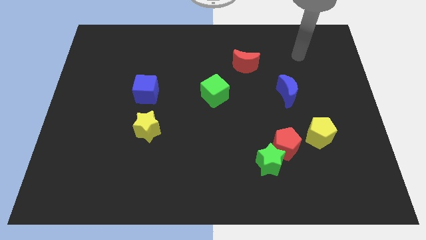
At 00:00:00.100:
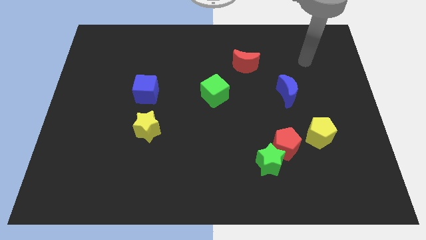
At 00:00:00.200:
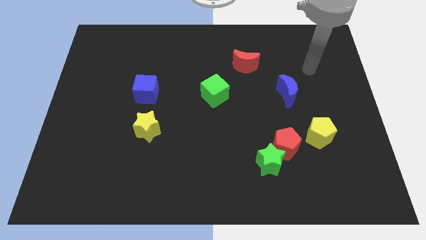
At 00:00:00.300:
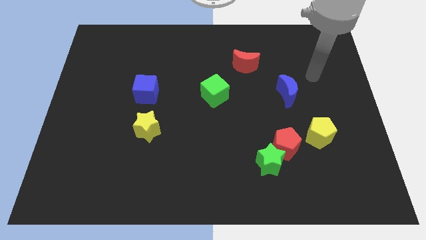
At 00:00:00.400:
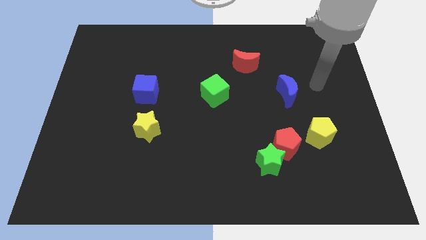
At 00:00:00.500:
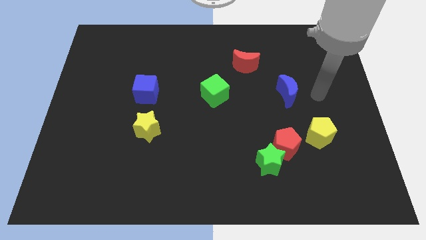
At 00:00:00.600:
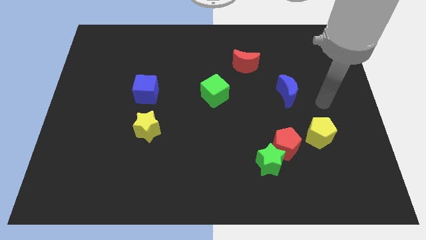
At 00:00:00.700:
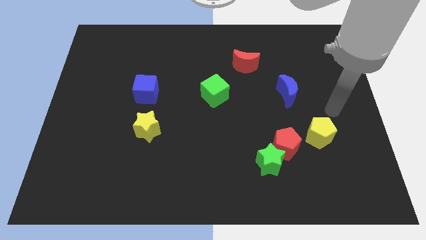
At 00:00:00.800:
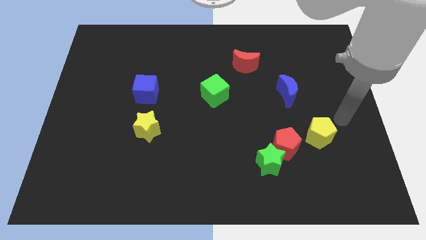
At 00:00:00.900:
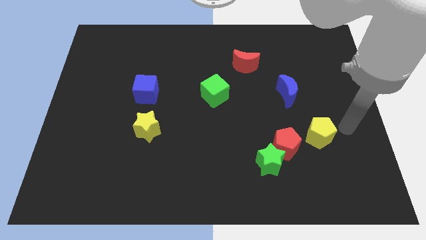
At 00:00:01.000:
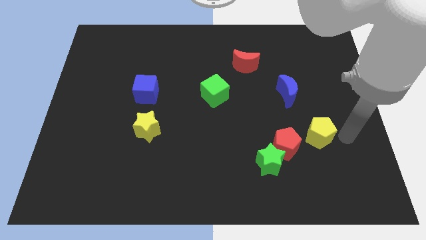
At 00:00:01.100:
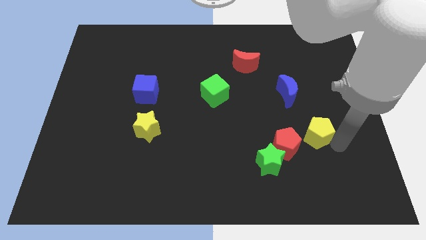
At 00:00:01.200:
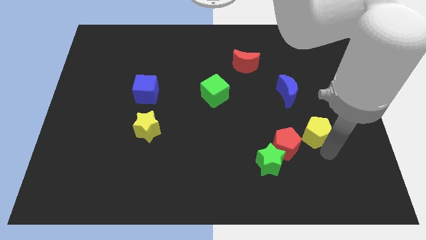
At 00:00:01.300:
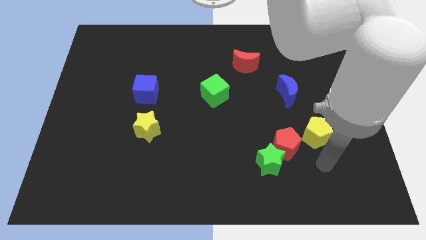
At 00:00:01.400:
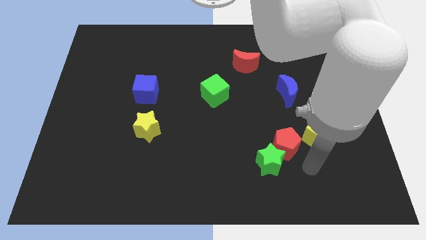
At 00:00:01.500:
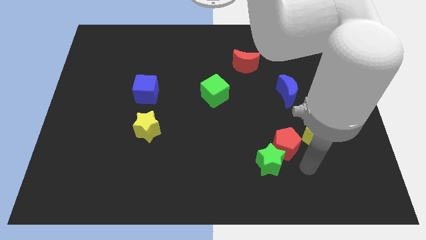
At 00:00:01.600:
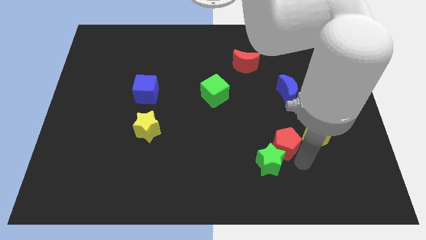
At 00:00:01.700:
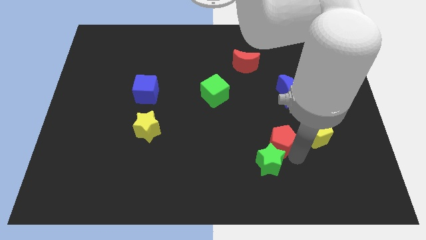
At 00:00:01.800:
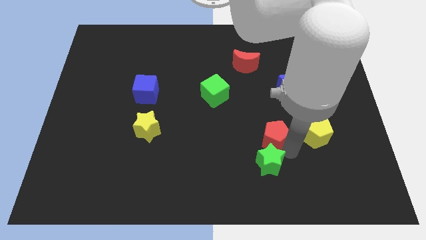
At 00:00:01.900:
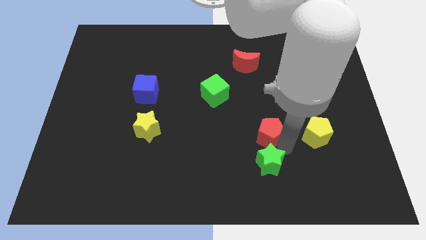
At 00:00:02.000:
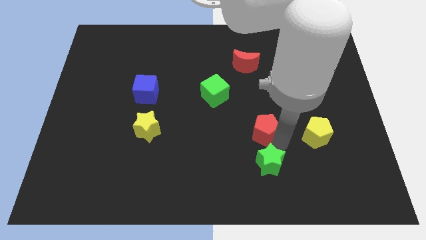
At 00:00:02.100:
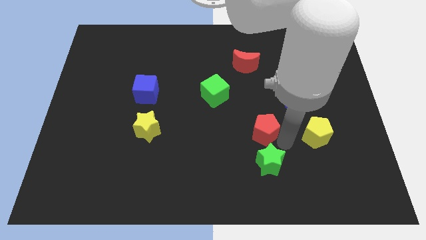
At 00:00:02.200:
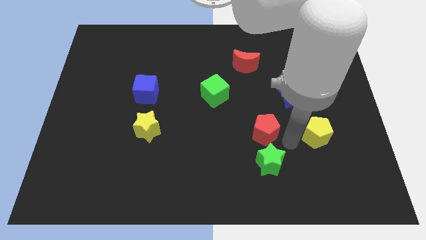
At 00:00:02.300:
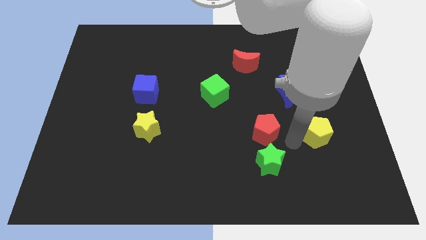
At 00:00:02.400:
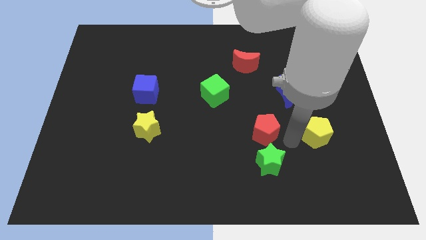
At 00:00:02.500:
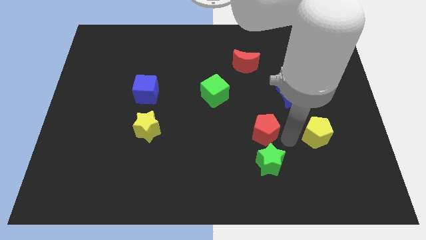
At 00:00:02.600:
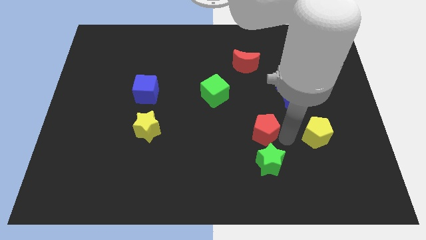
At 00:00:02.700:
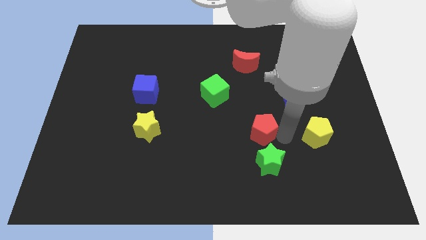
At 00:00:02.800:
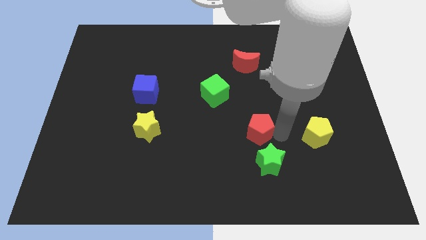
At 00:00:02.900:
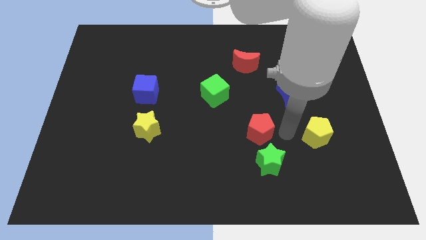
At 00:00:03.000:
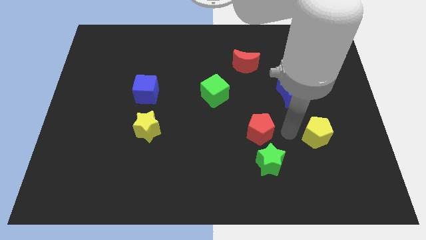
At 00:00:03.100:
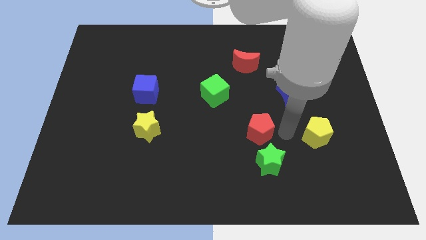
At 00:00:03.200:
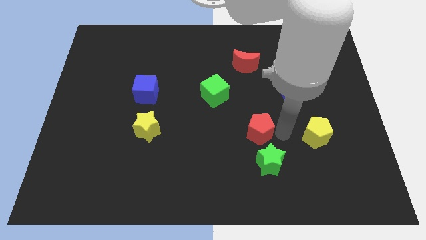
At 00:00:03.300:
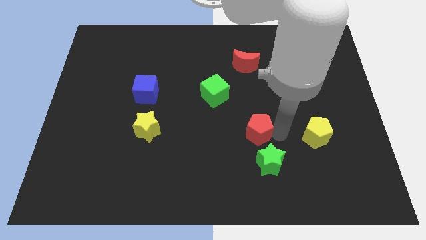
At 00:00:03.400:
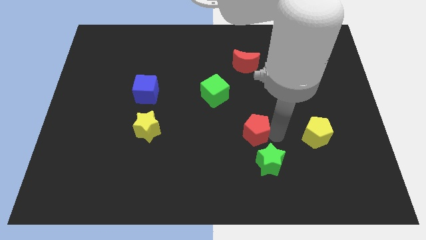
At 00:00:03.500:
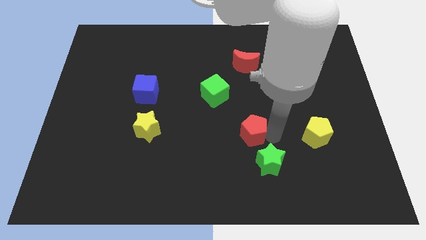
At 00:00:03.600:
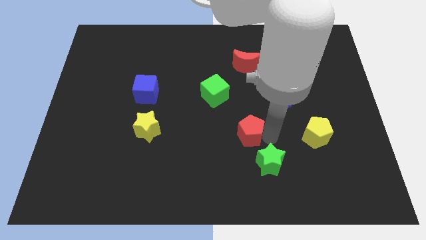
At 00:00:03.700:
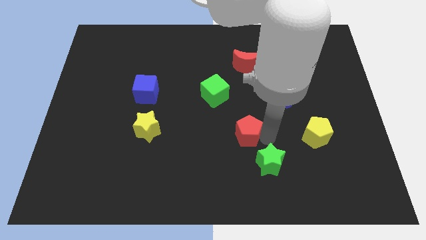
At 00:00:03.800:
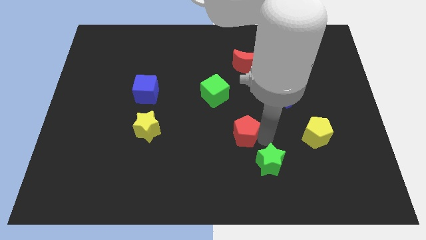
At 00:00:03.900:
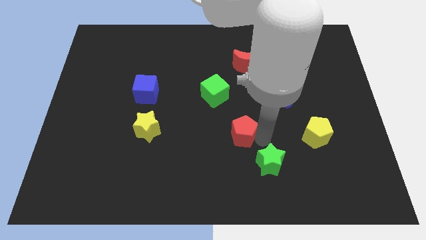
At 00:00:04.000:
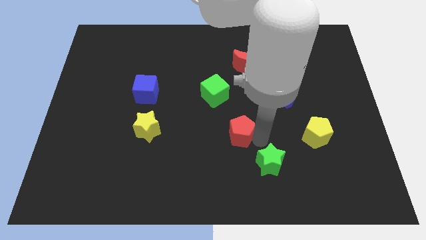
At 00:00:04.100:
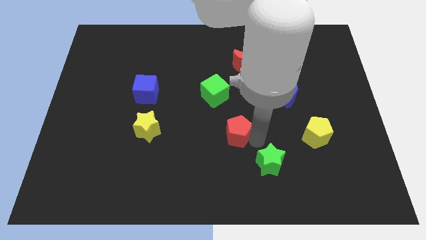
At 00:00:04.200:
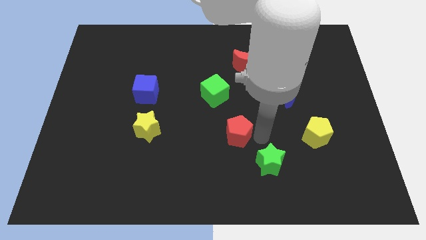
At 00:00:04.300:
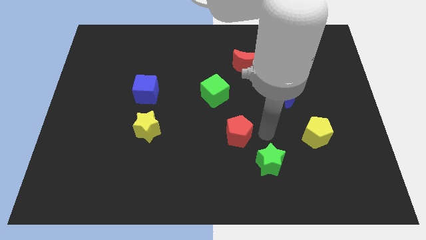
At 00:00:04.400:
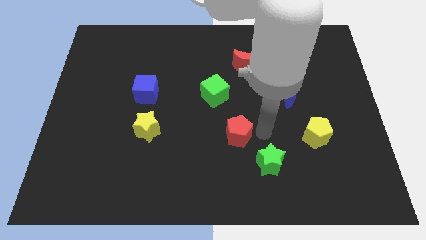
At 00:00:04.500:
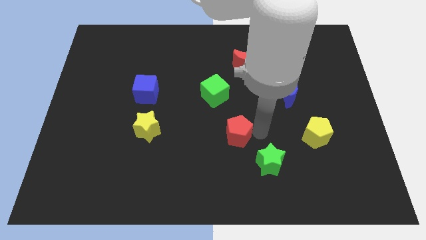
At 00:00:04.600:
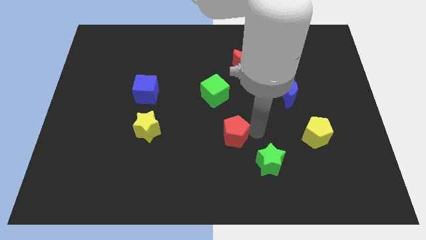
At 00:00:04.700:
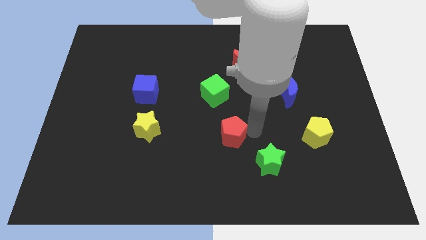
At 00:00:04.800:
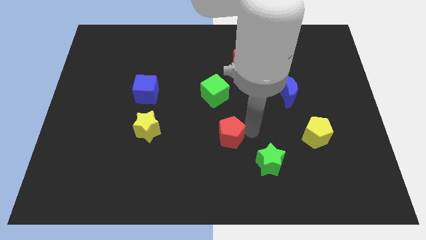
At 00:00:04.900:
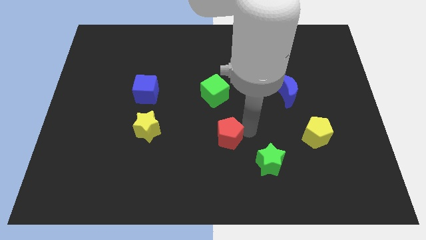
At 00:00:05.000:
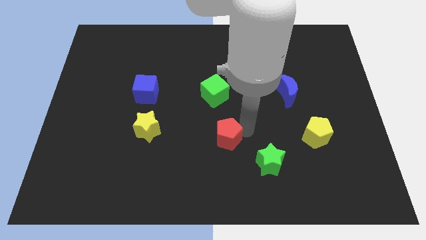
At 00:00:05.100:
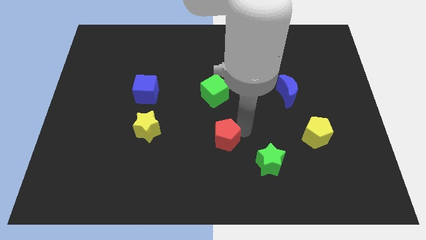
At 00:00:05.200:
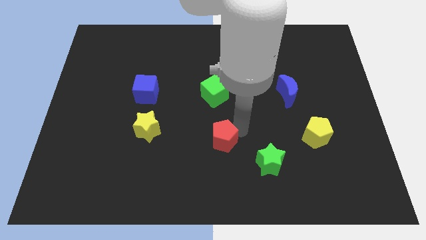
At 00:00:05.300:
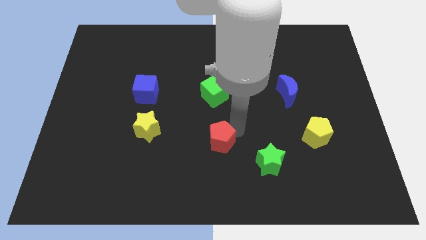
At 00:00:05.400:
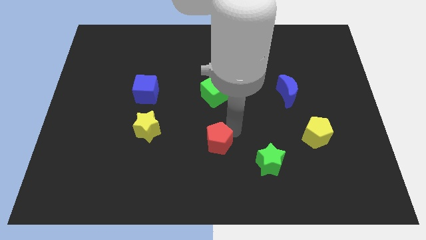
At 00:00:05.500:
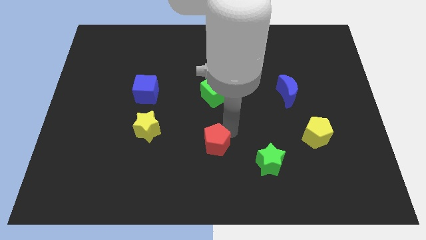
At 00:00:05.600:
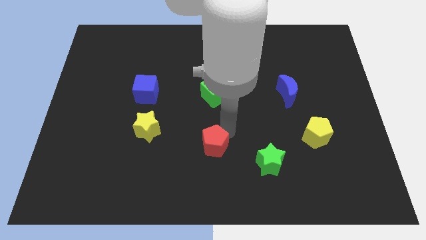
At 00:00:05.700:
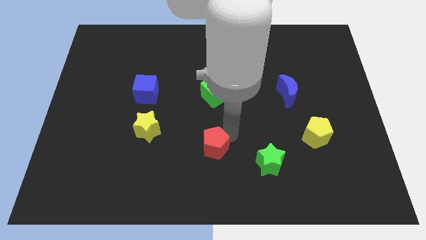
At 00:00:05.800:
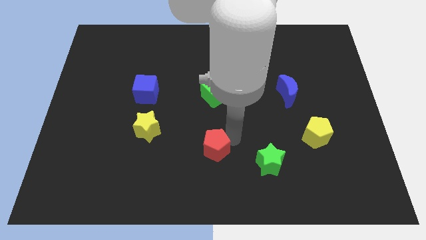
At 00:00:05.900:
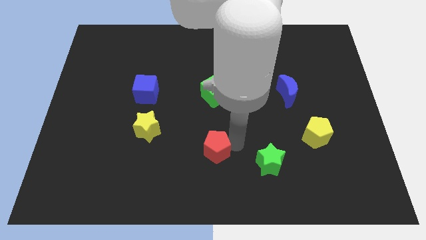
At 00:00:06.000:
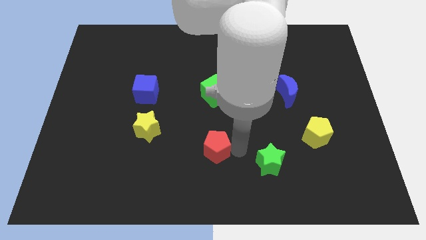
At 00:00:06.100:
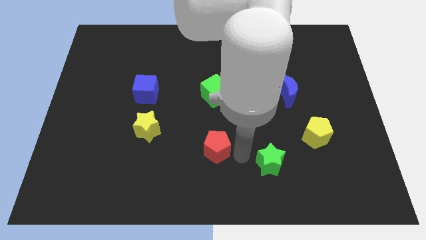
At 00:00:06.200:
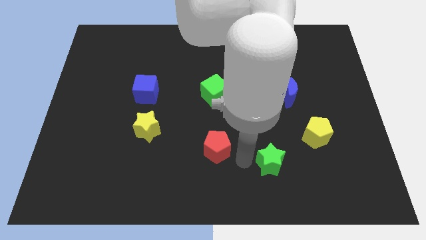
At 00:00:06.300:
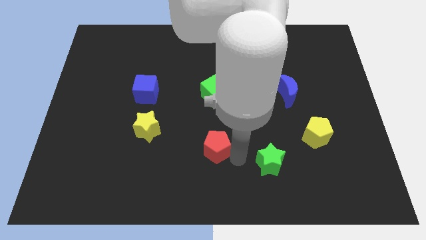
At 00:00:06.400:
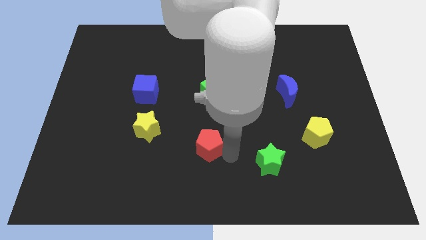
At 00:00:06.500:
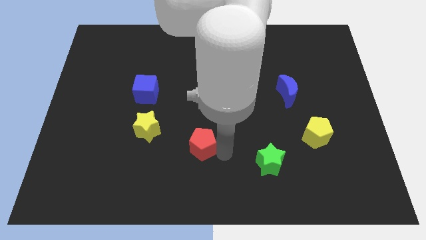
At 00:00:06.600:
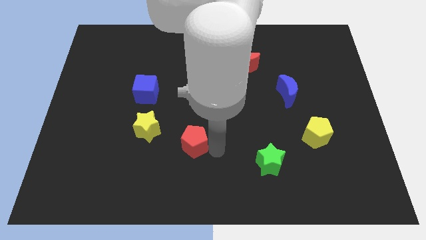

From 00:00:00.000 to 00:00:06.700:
slide the red pentagon left

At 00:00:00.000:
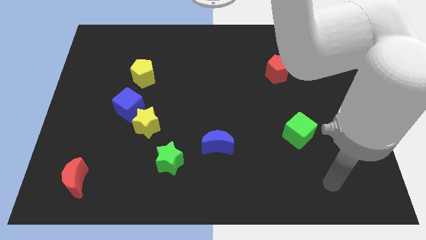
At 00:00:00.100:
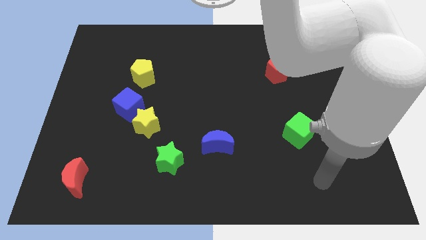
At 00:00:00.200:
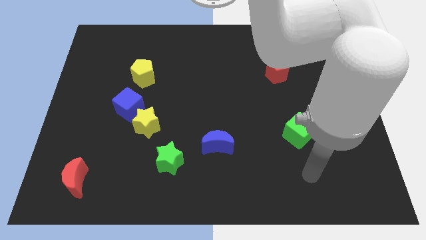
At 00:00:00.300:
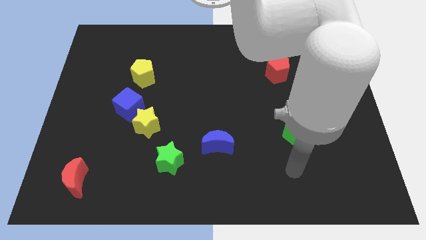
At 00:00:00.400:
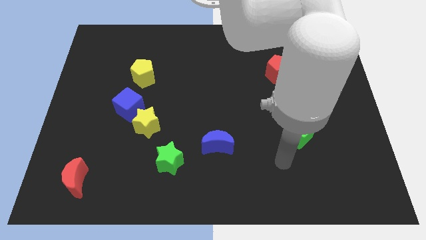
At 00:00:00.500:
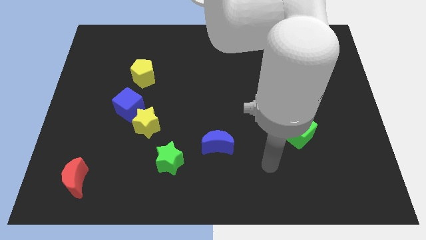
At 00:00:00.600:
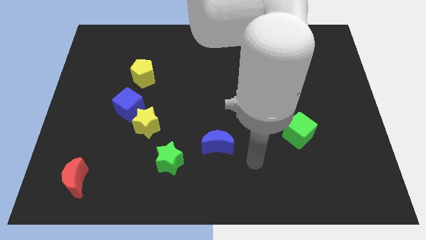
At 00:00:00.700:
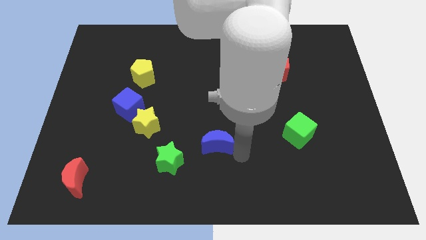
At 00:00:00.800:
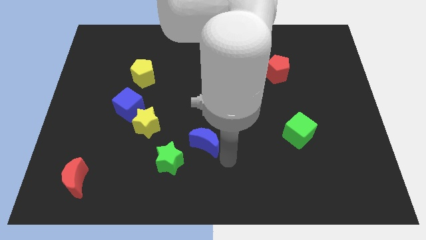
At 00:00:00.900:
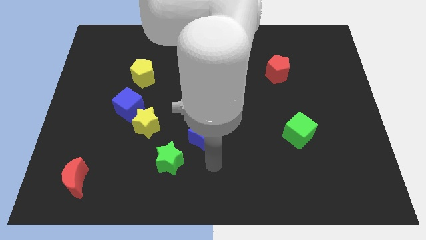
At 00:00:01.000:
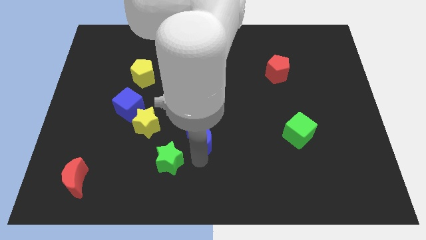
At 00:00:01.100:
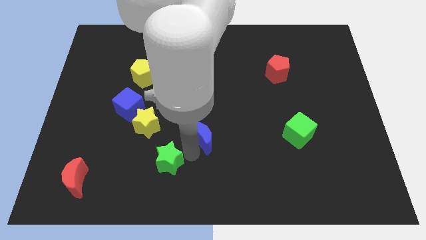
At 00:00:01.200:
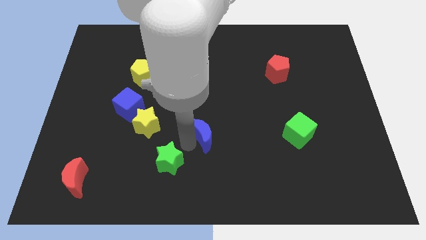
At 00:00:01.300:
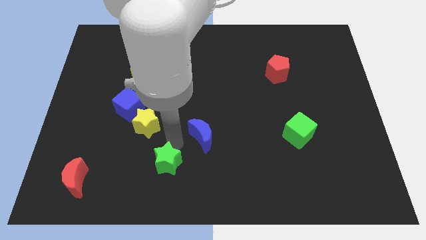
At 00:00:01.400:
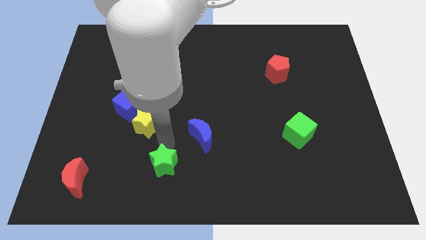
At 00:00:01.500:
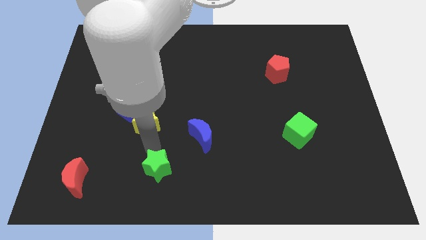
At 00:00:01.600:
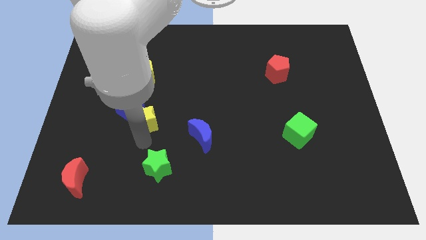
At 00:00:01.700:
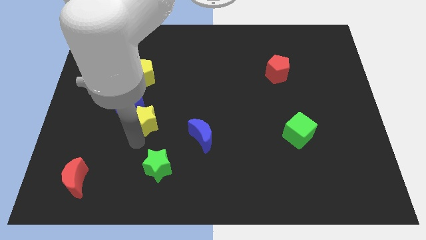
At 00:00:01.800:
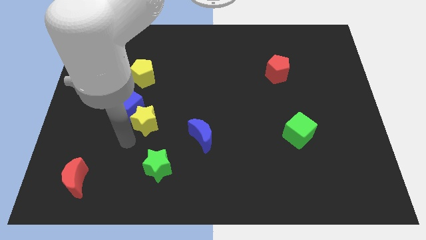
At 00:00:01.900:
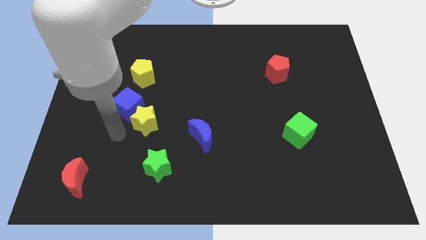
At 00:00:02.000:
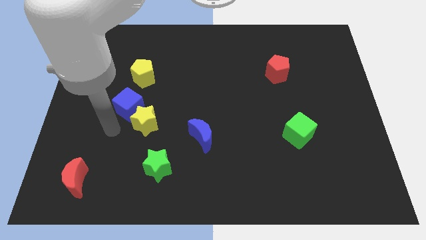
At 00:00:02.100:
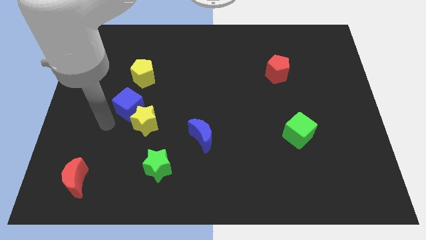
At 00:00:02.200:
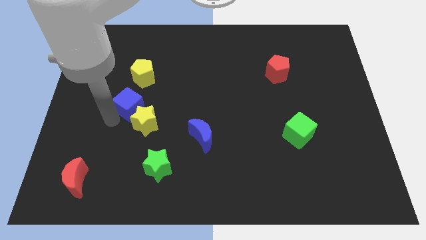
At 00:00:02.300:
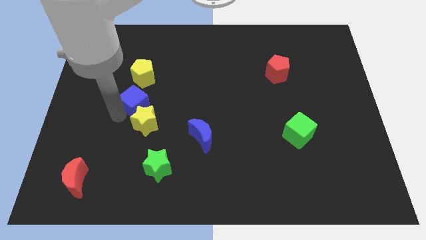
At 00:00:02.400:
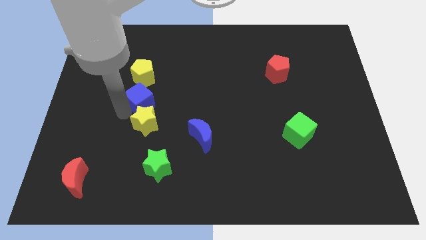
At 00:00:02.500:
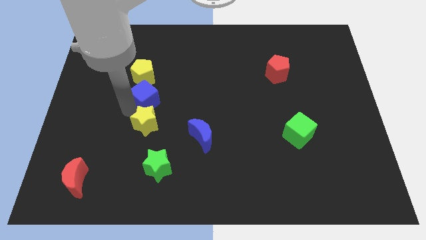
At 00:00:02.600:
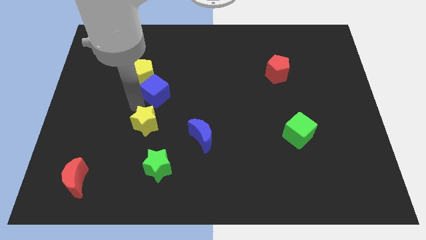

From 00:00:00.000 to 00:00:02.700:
slightly slide the blue cube up and to the right diagonally
